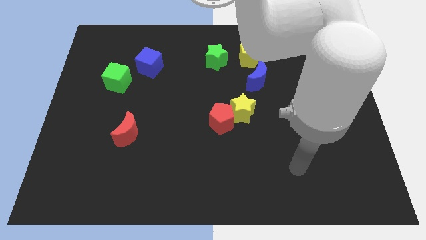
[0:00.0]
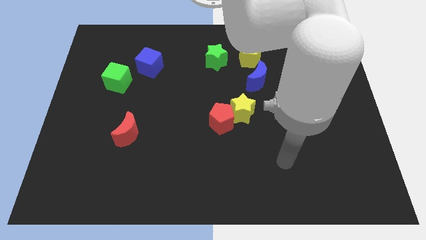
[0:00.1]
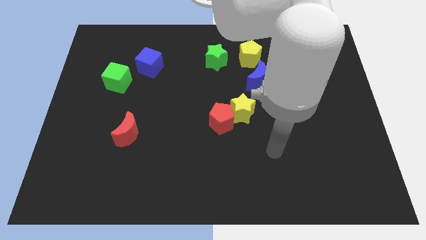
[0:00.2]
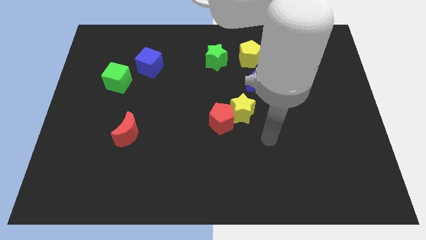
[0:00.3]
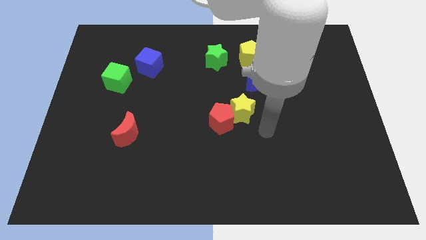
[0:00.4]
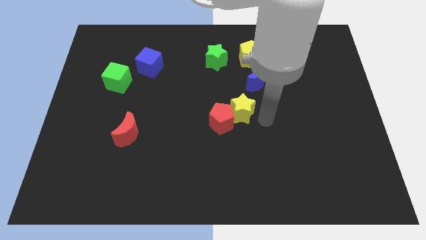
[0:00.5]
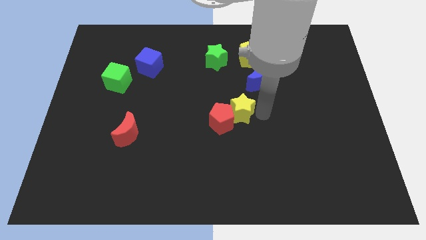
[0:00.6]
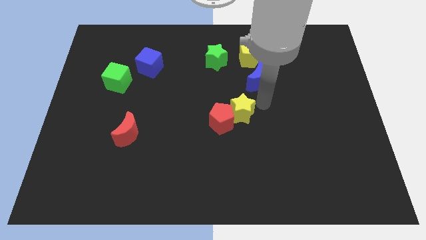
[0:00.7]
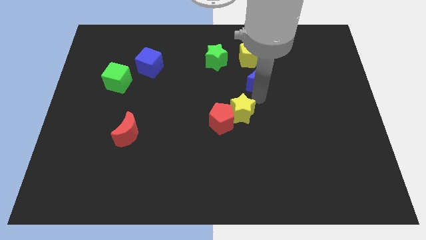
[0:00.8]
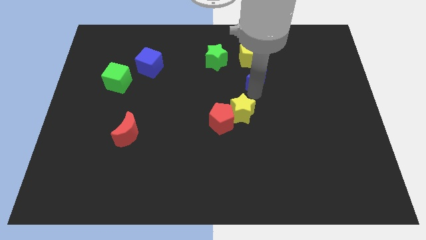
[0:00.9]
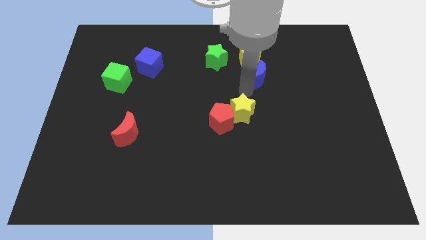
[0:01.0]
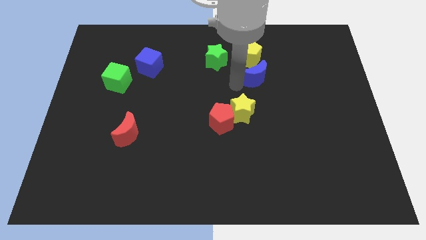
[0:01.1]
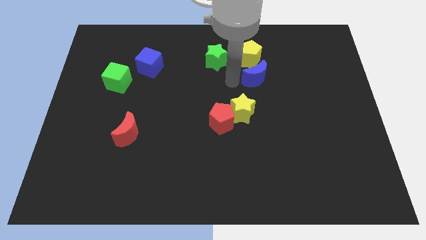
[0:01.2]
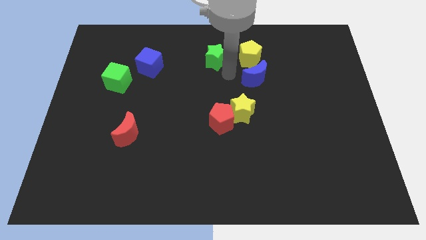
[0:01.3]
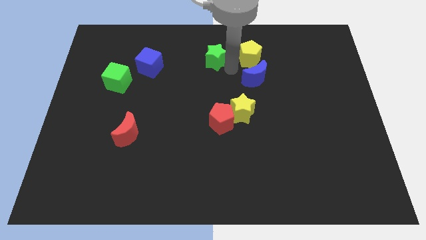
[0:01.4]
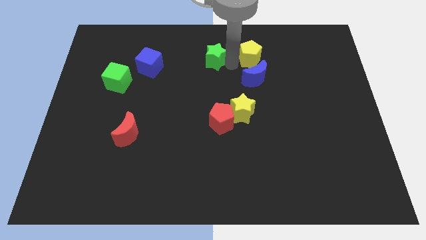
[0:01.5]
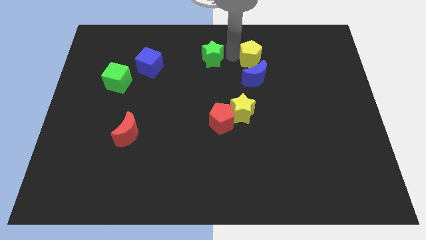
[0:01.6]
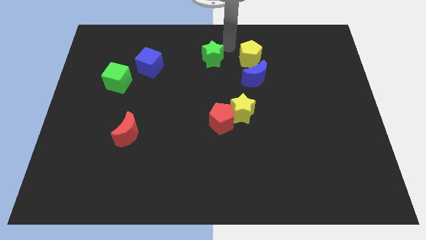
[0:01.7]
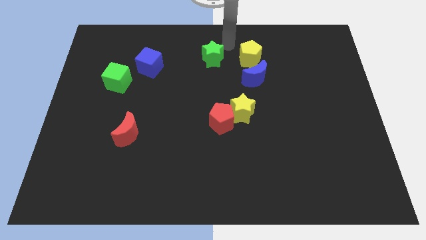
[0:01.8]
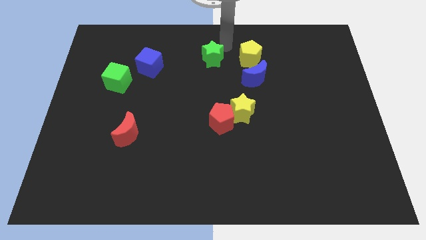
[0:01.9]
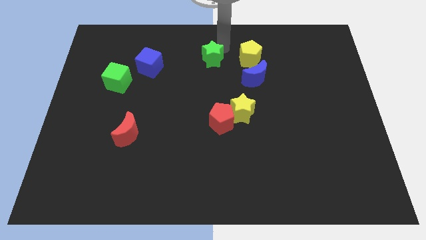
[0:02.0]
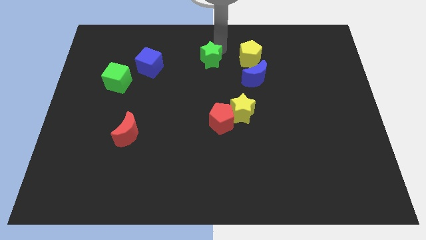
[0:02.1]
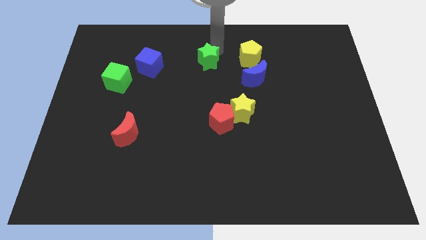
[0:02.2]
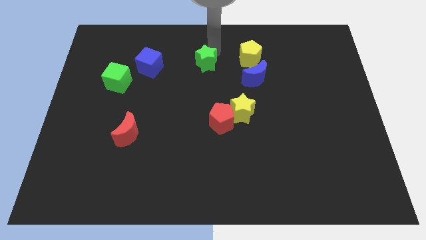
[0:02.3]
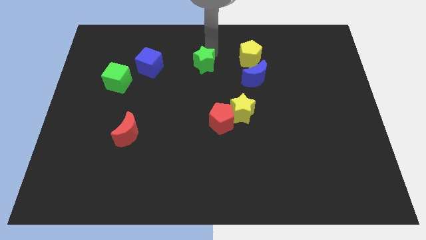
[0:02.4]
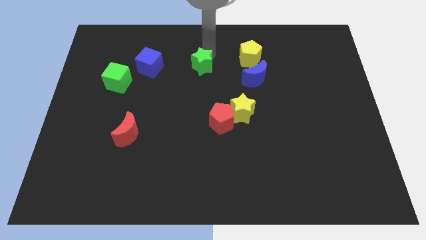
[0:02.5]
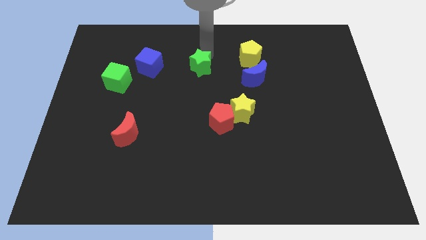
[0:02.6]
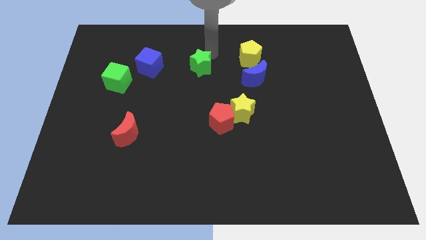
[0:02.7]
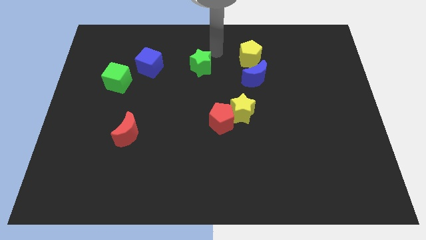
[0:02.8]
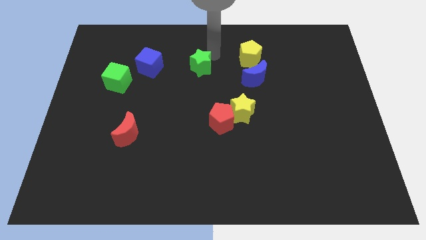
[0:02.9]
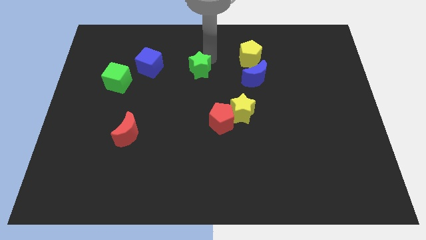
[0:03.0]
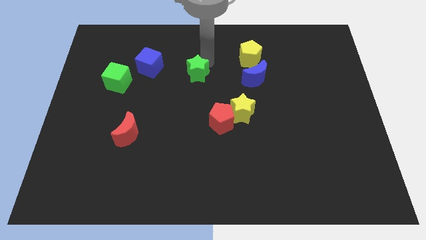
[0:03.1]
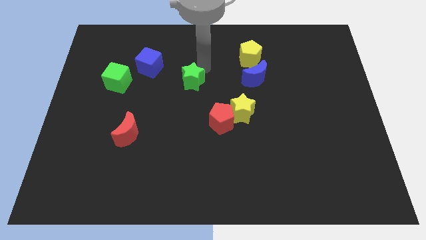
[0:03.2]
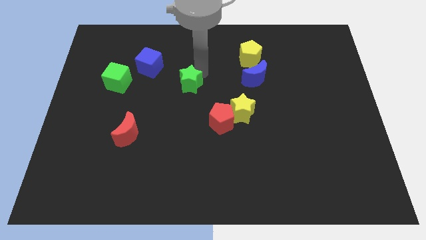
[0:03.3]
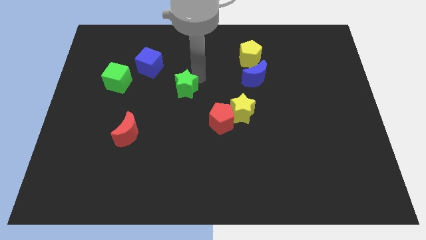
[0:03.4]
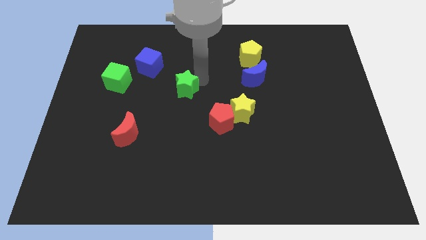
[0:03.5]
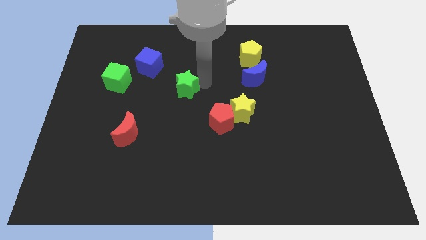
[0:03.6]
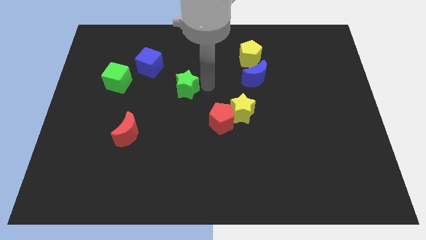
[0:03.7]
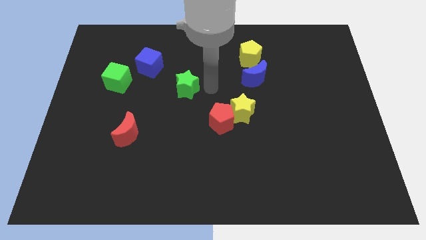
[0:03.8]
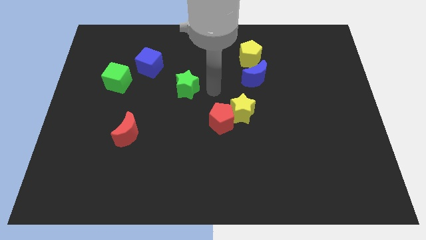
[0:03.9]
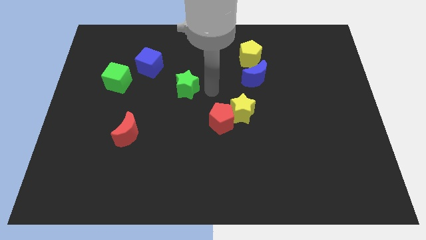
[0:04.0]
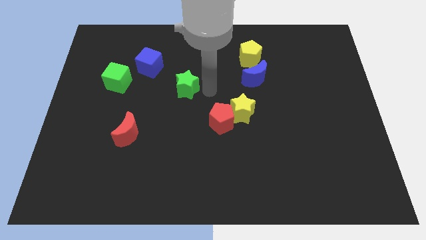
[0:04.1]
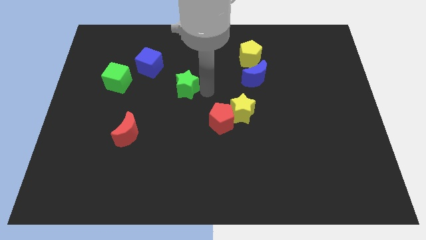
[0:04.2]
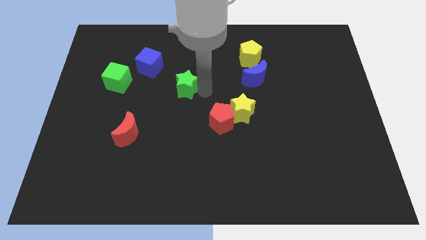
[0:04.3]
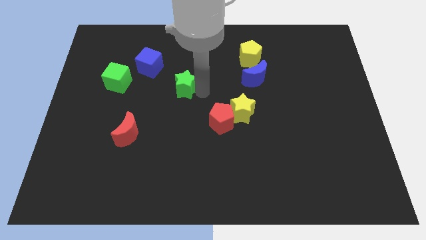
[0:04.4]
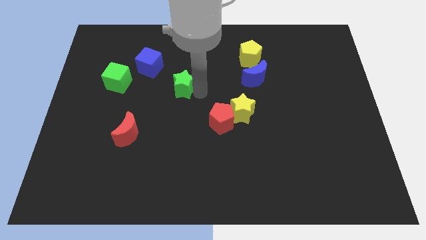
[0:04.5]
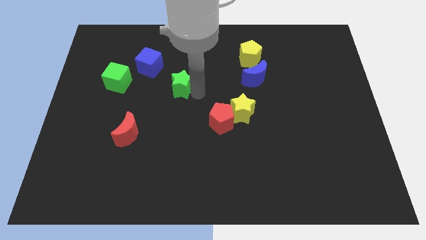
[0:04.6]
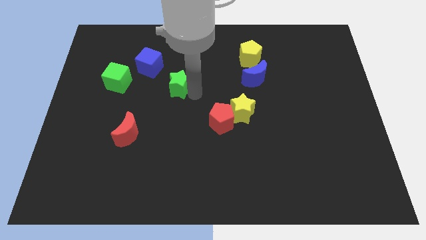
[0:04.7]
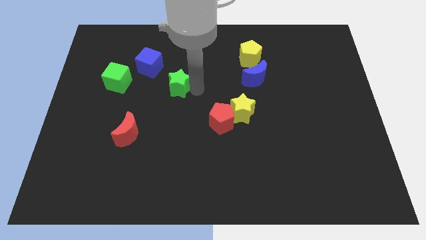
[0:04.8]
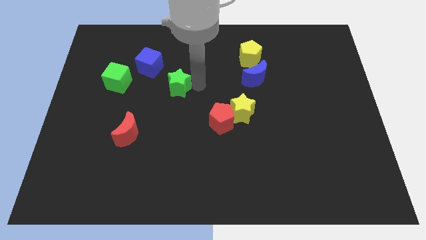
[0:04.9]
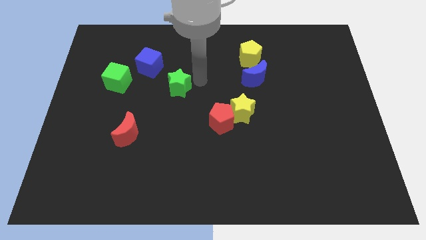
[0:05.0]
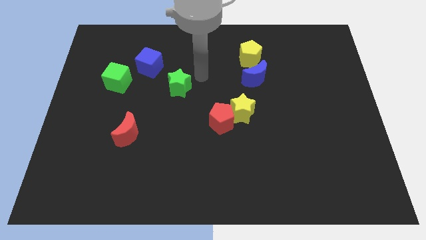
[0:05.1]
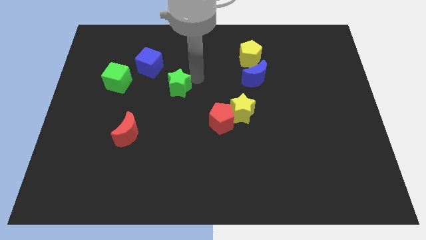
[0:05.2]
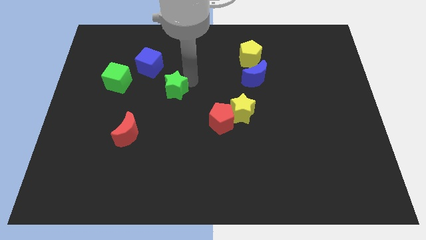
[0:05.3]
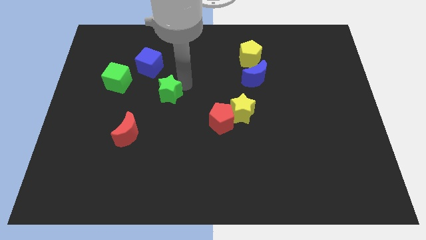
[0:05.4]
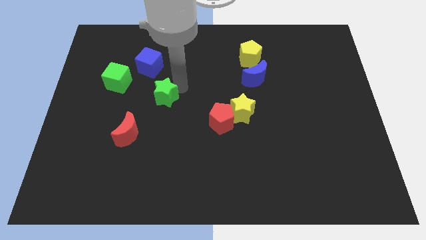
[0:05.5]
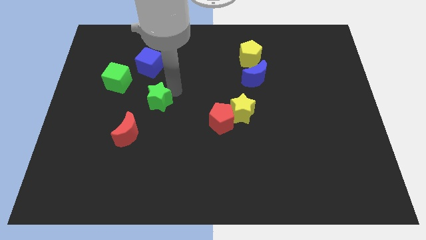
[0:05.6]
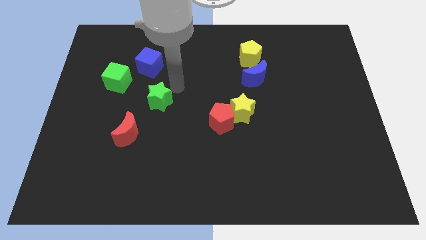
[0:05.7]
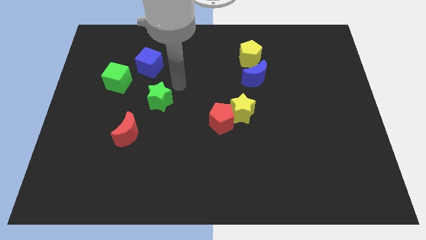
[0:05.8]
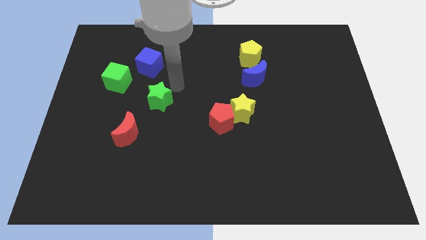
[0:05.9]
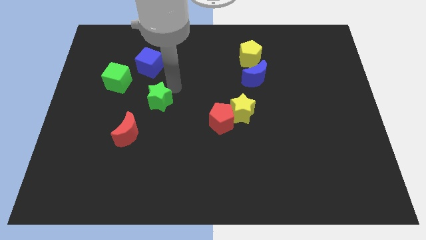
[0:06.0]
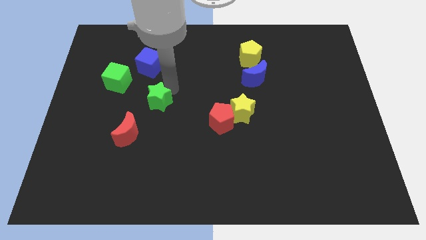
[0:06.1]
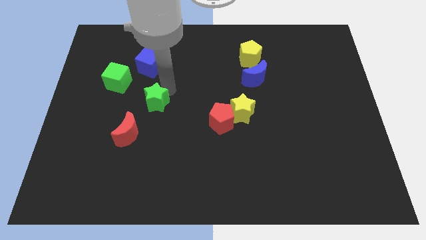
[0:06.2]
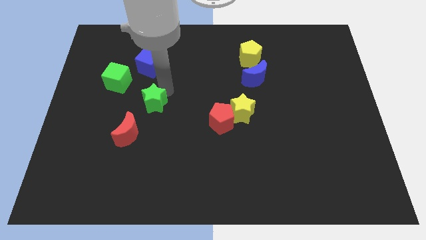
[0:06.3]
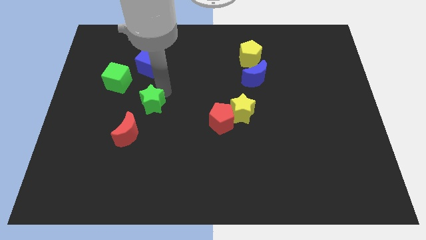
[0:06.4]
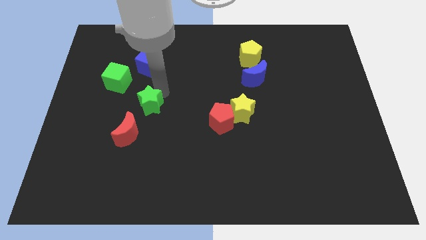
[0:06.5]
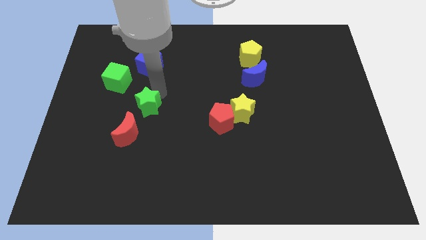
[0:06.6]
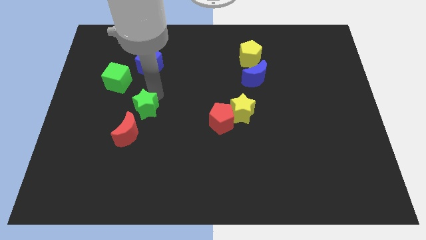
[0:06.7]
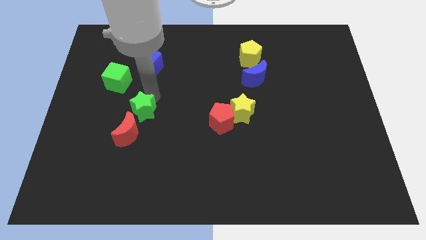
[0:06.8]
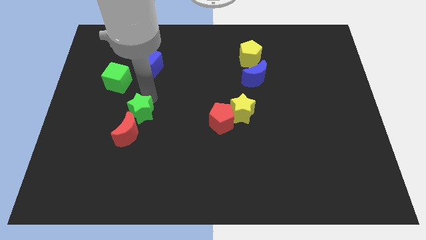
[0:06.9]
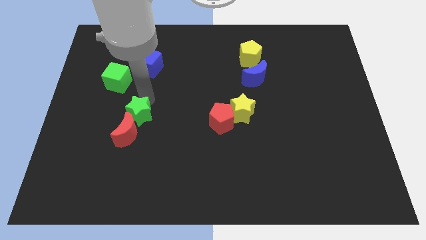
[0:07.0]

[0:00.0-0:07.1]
move the green star next to the red moon
